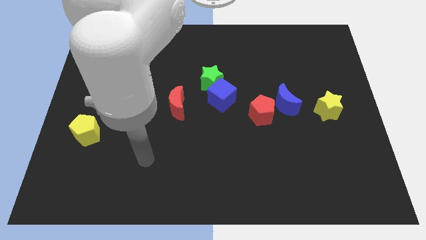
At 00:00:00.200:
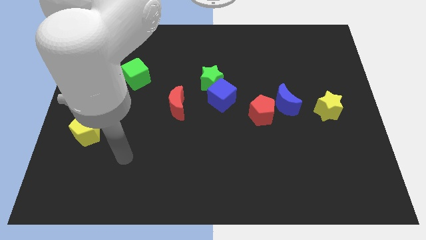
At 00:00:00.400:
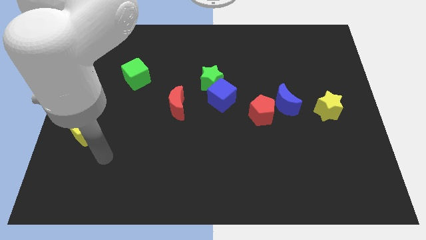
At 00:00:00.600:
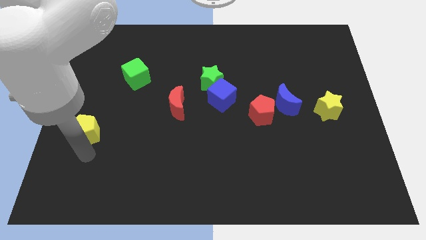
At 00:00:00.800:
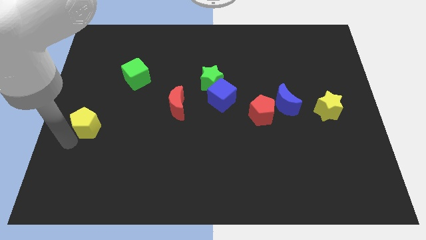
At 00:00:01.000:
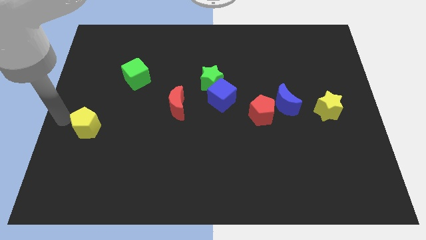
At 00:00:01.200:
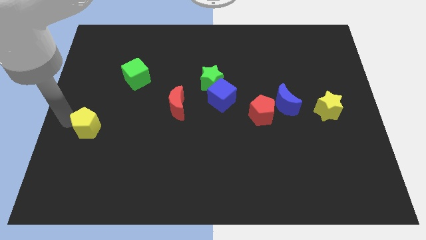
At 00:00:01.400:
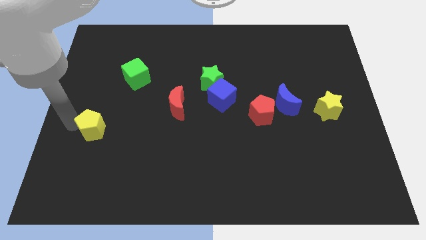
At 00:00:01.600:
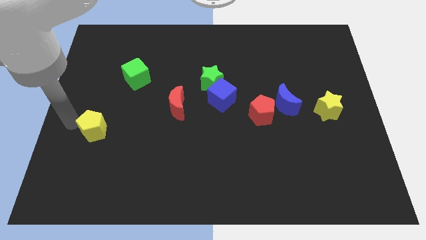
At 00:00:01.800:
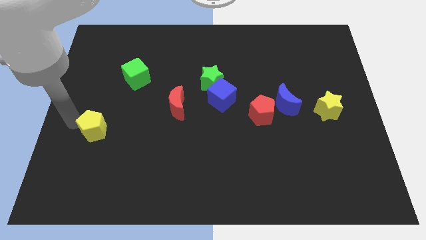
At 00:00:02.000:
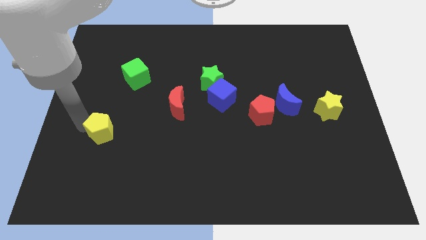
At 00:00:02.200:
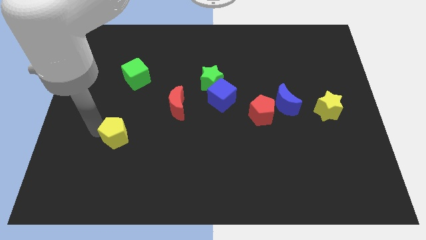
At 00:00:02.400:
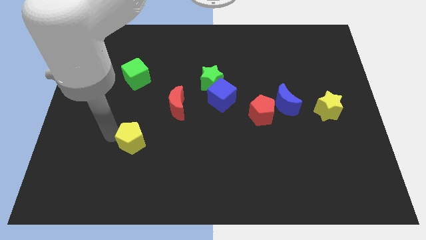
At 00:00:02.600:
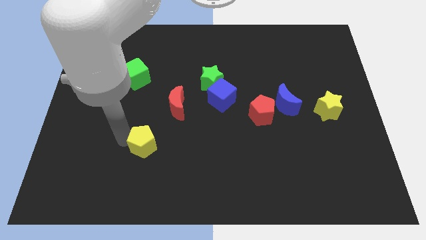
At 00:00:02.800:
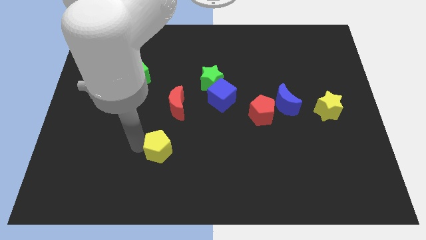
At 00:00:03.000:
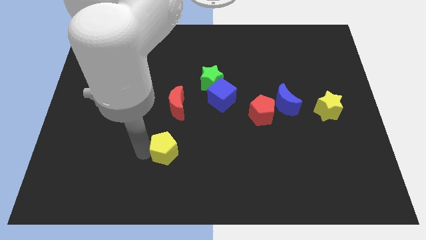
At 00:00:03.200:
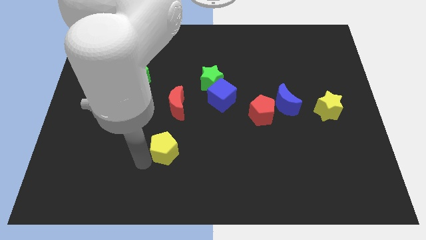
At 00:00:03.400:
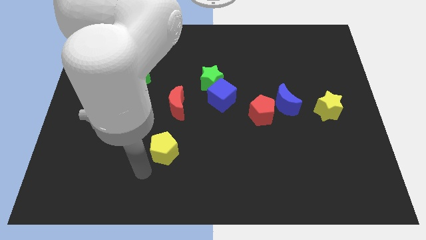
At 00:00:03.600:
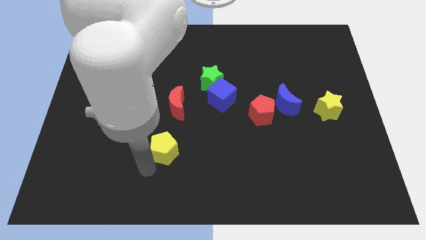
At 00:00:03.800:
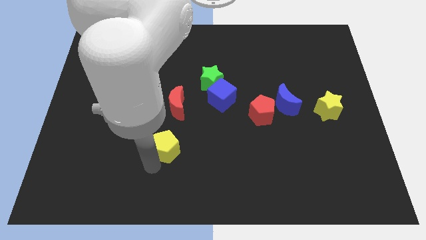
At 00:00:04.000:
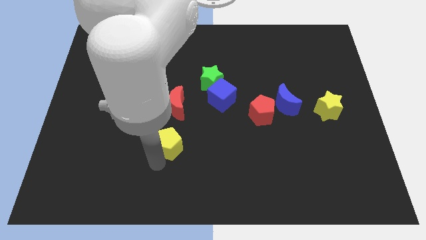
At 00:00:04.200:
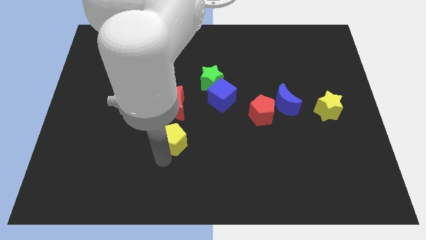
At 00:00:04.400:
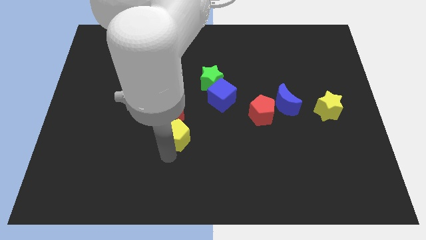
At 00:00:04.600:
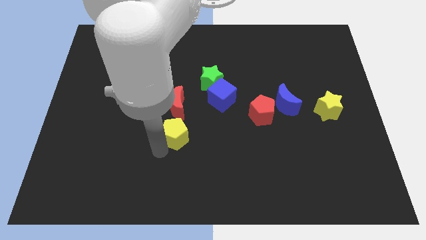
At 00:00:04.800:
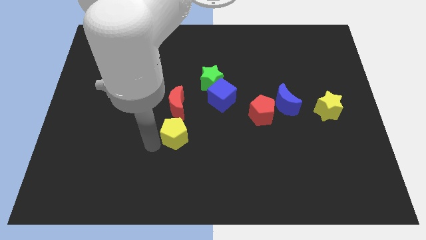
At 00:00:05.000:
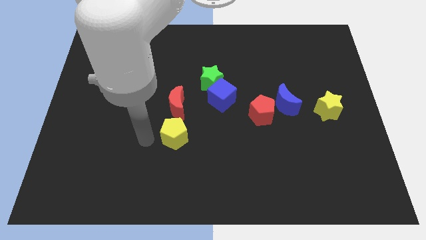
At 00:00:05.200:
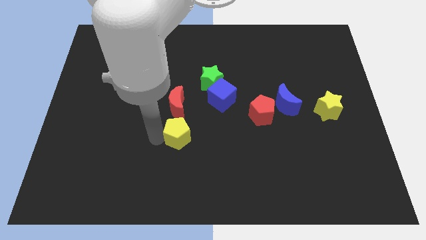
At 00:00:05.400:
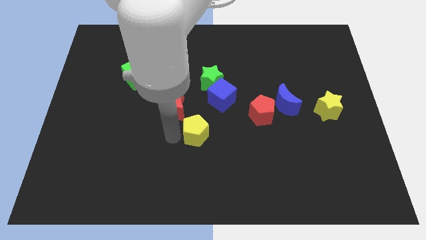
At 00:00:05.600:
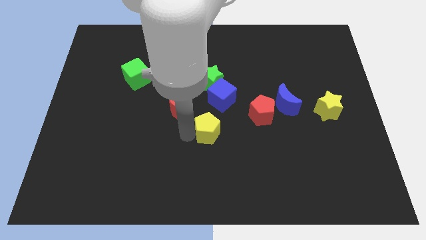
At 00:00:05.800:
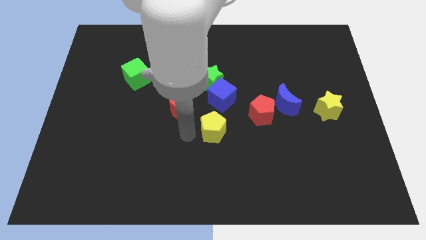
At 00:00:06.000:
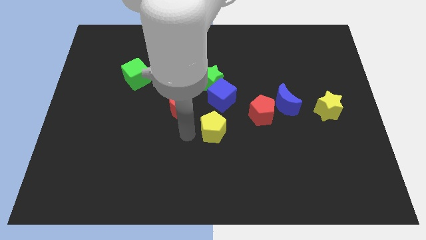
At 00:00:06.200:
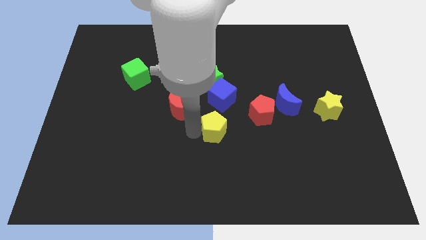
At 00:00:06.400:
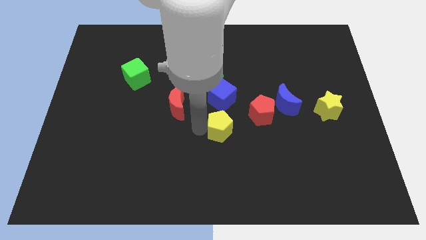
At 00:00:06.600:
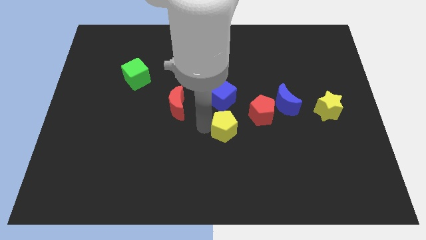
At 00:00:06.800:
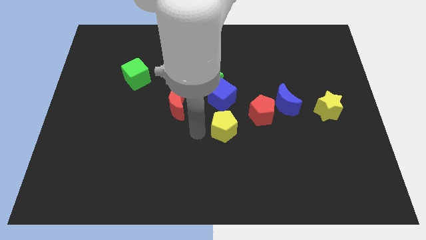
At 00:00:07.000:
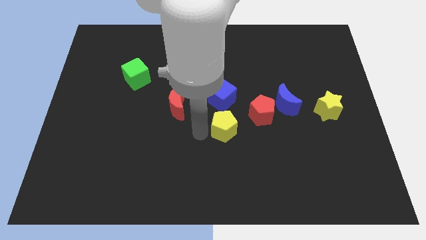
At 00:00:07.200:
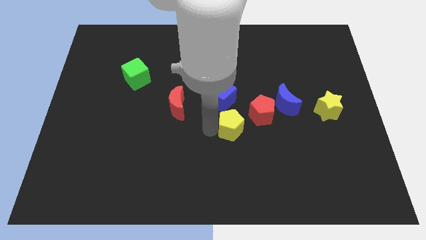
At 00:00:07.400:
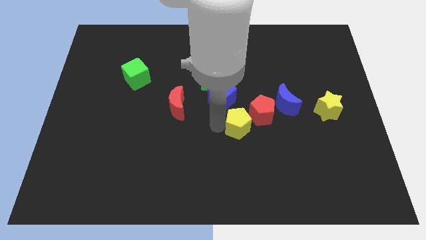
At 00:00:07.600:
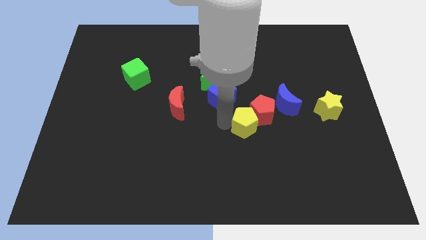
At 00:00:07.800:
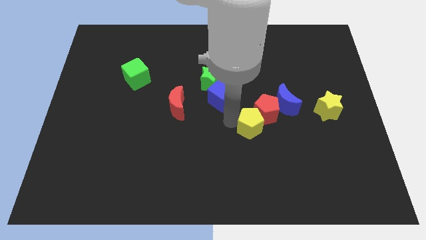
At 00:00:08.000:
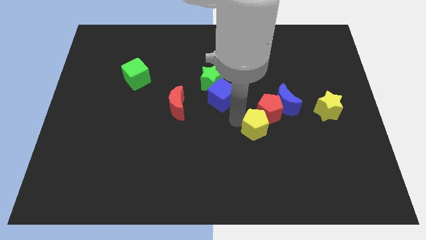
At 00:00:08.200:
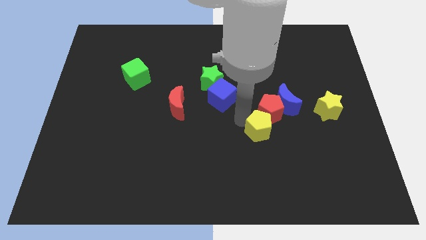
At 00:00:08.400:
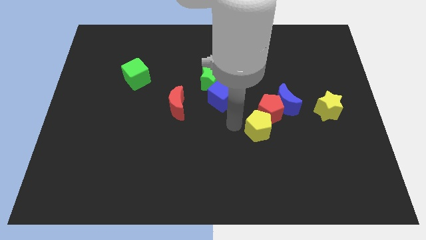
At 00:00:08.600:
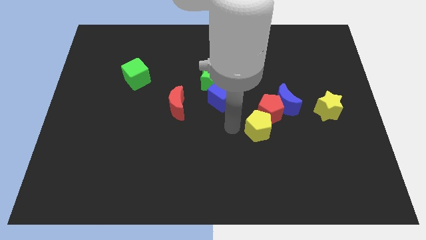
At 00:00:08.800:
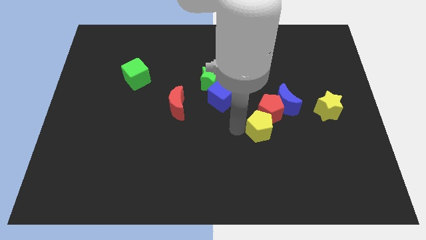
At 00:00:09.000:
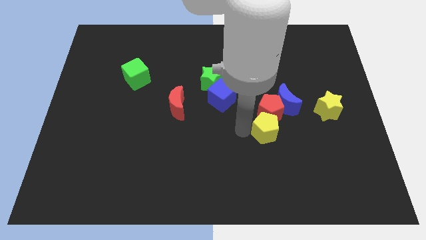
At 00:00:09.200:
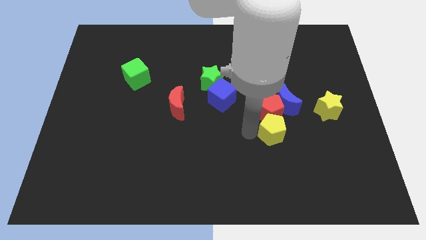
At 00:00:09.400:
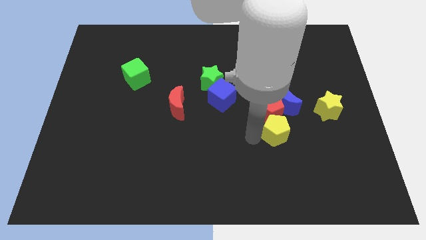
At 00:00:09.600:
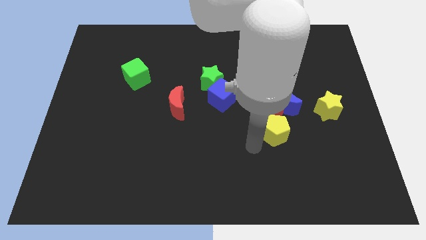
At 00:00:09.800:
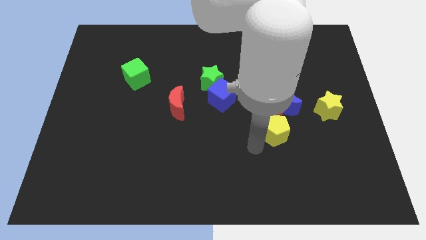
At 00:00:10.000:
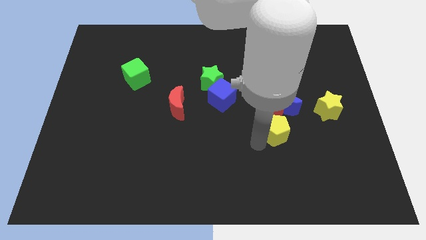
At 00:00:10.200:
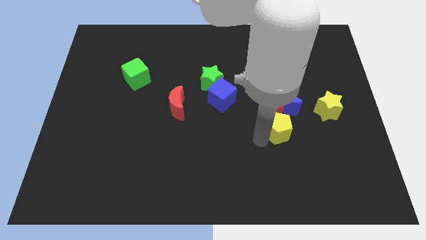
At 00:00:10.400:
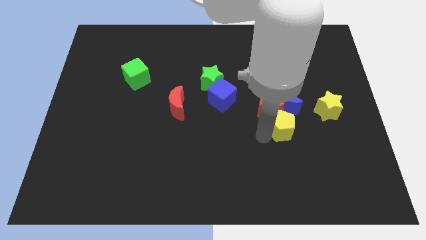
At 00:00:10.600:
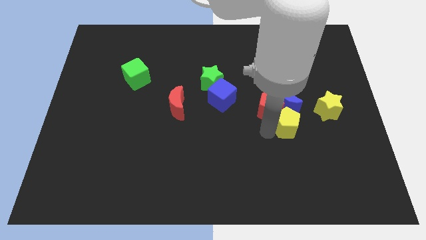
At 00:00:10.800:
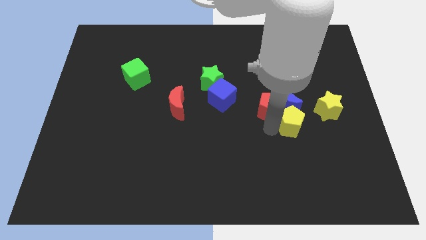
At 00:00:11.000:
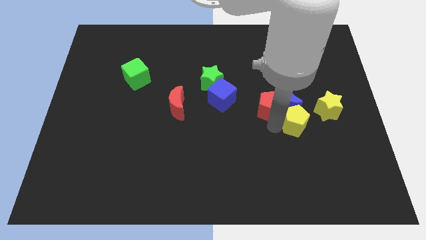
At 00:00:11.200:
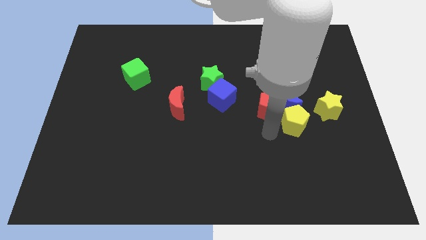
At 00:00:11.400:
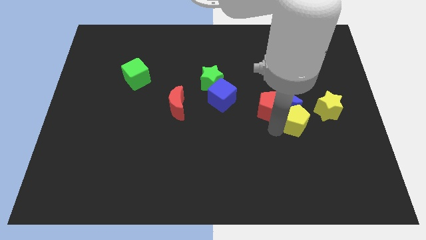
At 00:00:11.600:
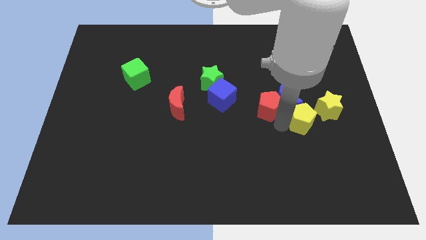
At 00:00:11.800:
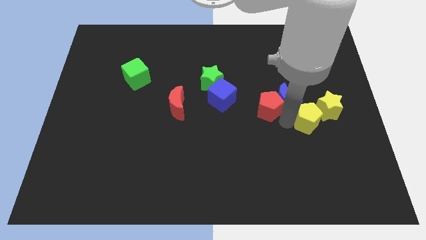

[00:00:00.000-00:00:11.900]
move the yellow pentagon towards the yellow star

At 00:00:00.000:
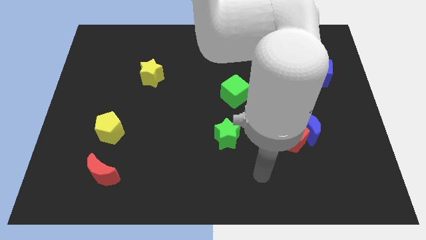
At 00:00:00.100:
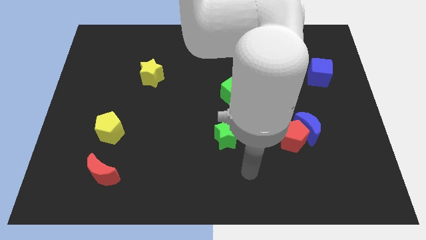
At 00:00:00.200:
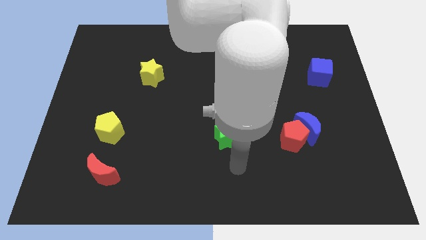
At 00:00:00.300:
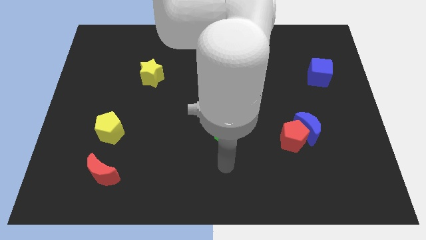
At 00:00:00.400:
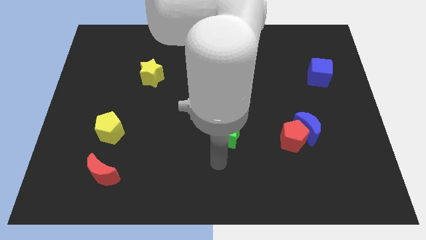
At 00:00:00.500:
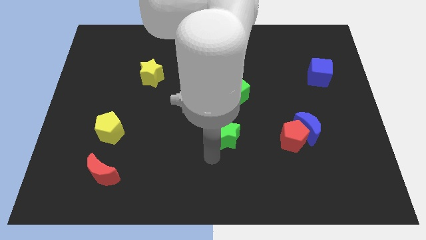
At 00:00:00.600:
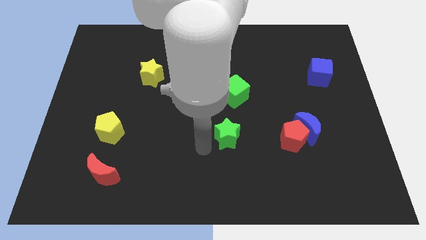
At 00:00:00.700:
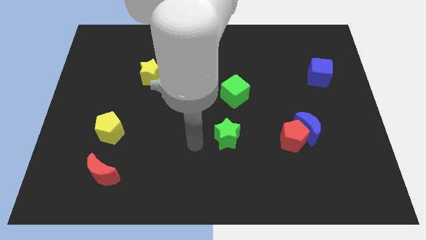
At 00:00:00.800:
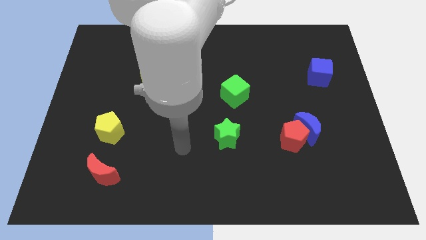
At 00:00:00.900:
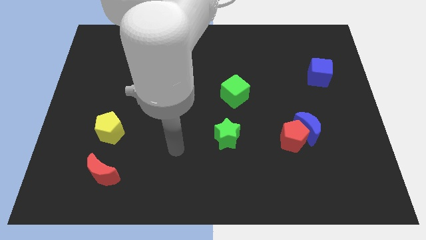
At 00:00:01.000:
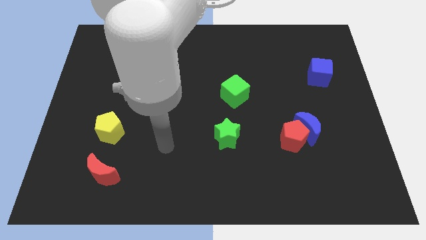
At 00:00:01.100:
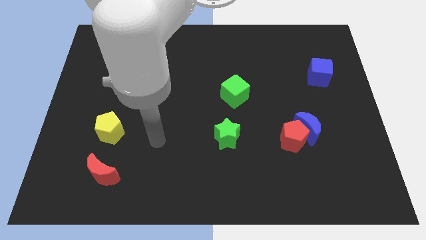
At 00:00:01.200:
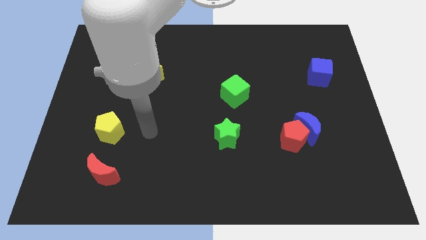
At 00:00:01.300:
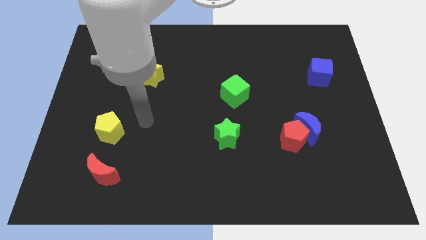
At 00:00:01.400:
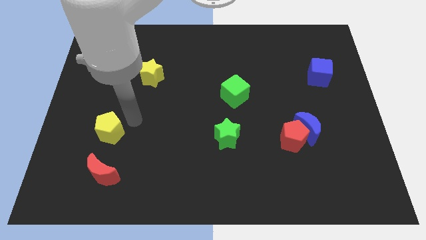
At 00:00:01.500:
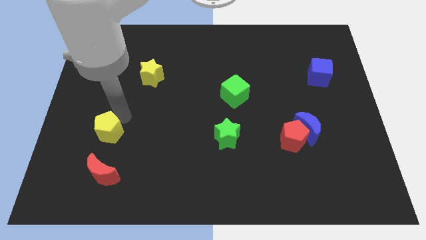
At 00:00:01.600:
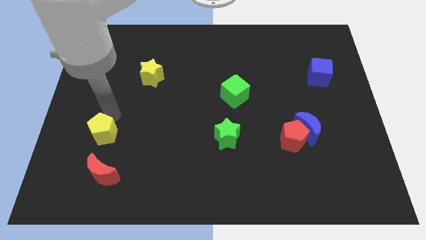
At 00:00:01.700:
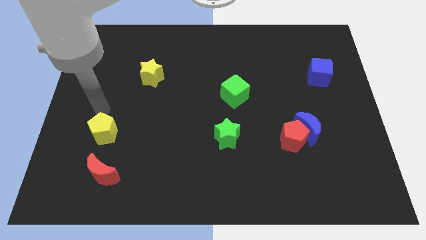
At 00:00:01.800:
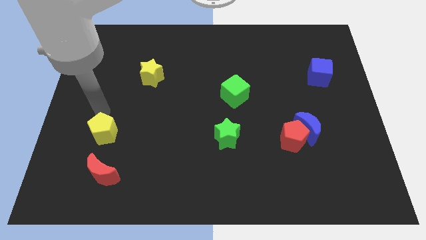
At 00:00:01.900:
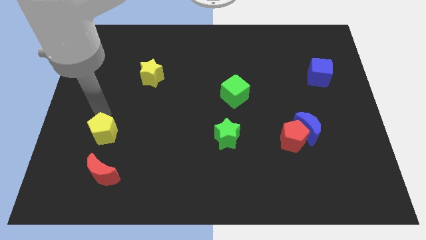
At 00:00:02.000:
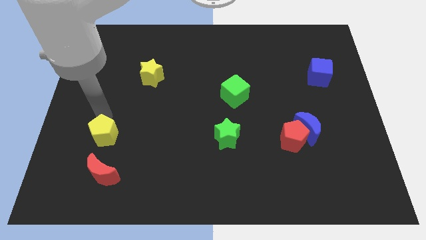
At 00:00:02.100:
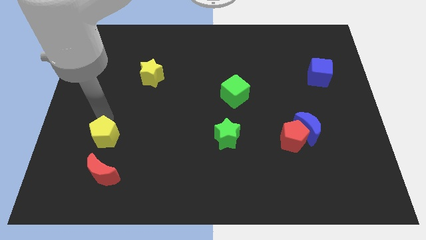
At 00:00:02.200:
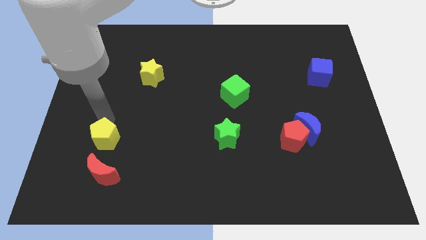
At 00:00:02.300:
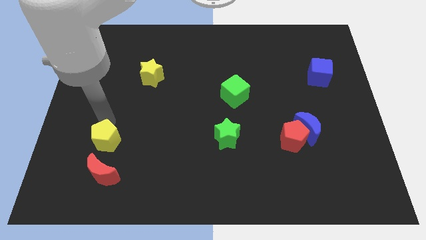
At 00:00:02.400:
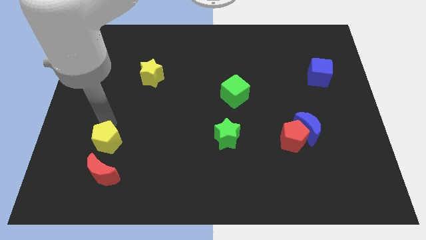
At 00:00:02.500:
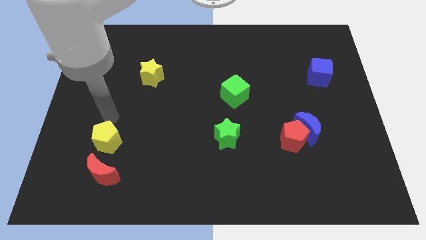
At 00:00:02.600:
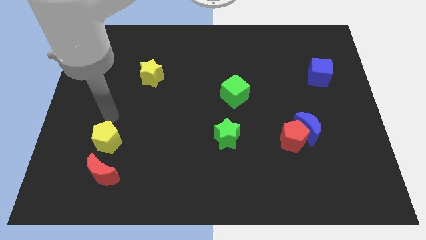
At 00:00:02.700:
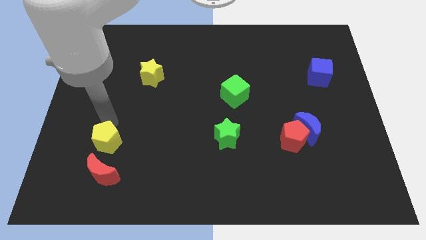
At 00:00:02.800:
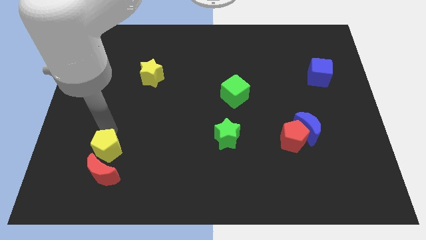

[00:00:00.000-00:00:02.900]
slide the yellow pentagon towards the red moon
